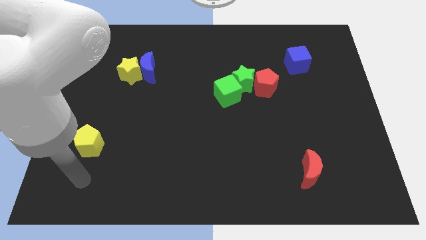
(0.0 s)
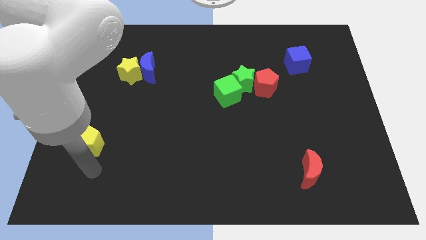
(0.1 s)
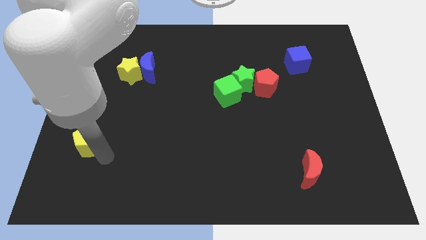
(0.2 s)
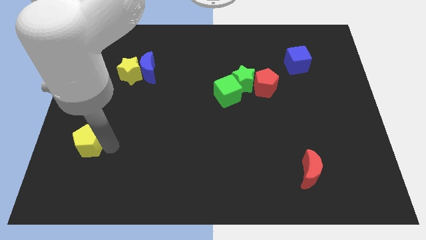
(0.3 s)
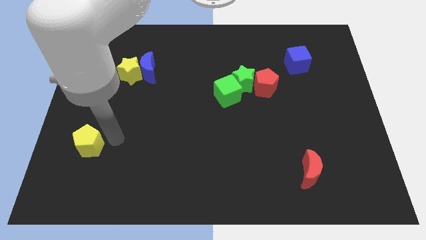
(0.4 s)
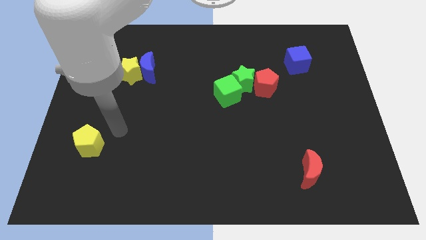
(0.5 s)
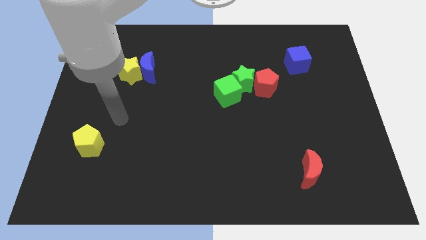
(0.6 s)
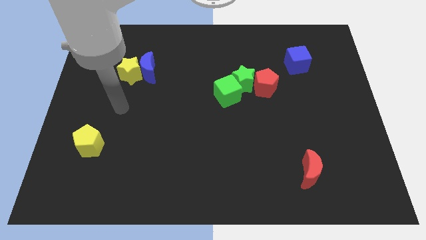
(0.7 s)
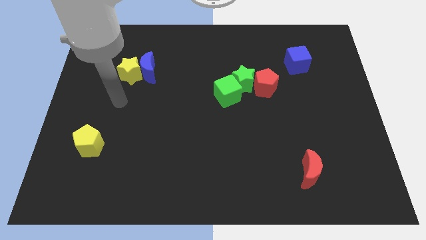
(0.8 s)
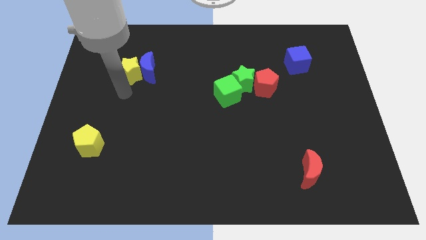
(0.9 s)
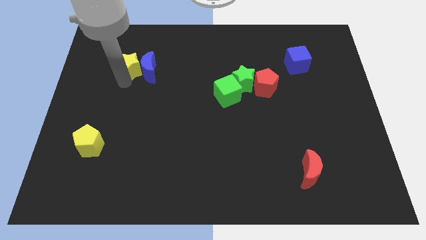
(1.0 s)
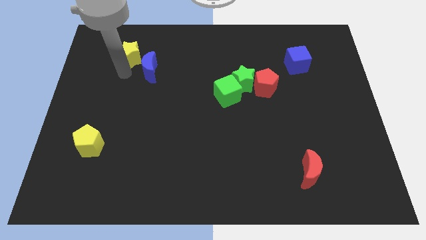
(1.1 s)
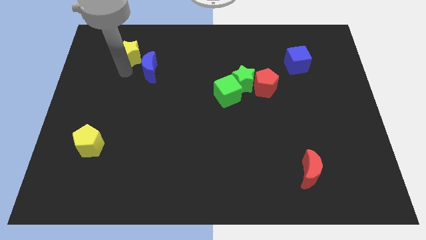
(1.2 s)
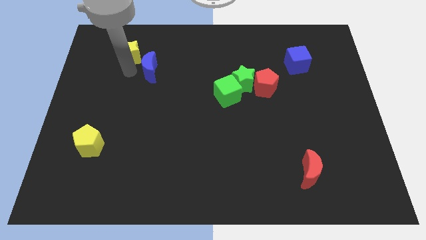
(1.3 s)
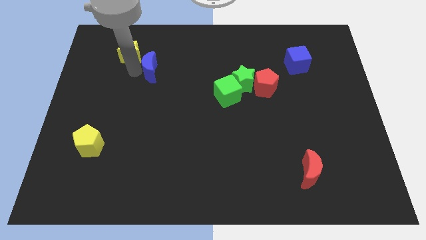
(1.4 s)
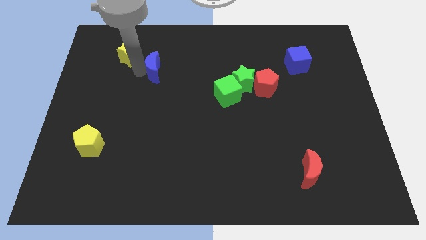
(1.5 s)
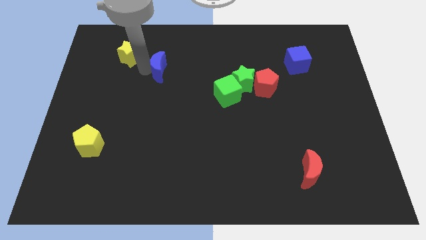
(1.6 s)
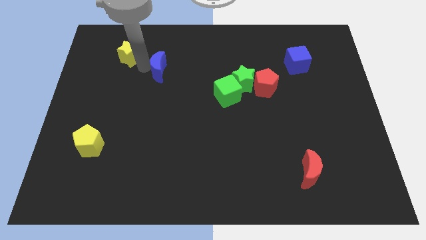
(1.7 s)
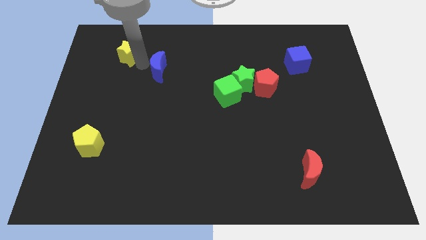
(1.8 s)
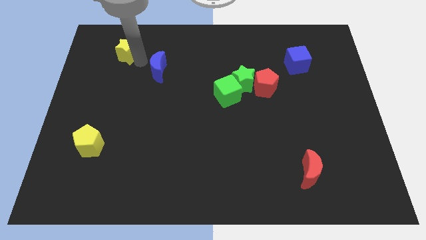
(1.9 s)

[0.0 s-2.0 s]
pull the blue moon apart from the yellow star

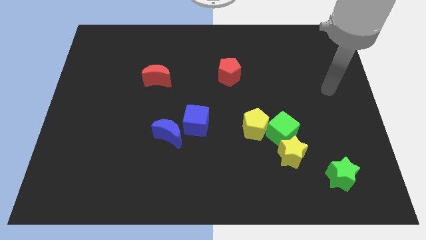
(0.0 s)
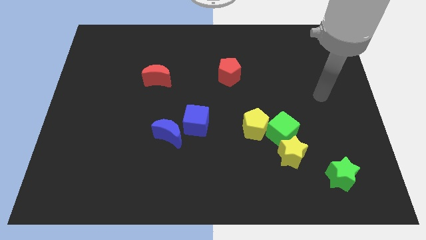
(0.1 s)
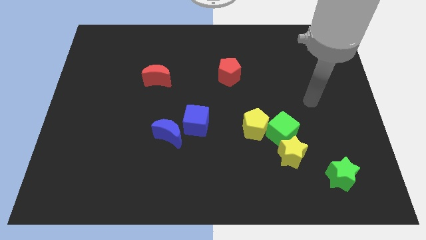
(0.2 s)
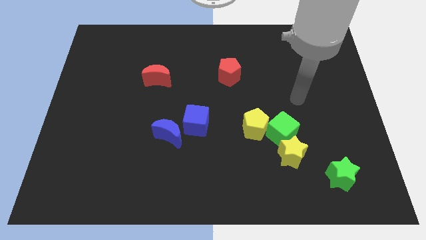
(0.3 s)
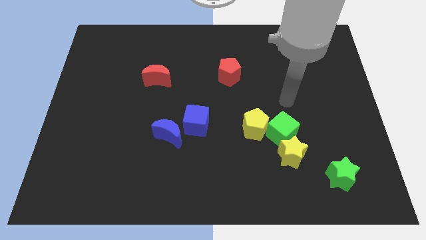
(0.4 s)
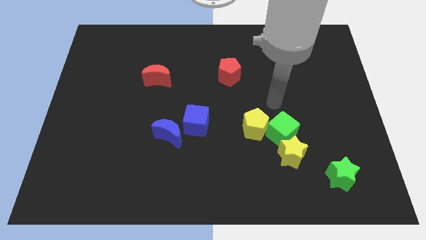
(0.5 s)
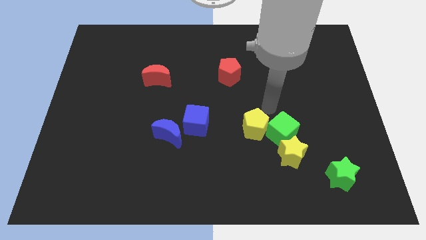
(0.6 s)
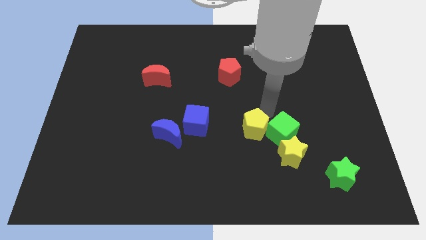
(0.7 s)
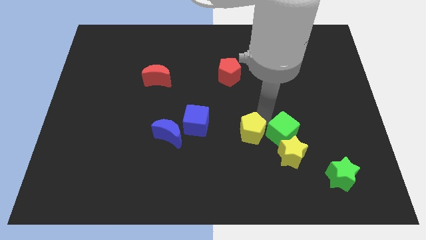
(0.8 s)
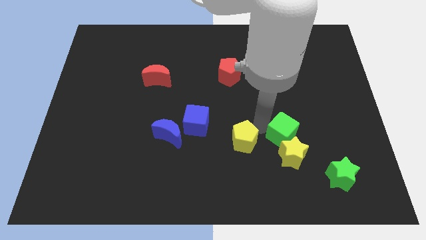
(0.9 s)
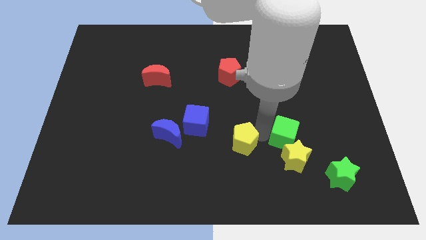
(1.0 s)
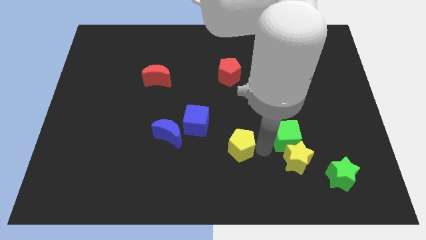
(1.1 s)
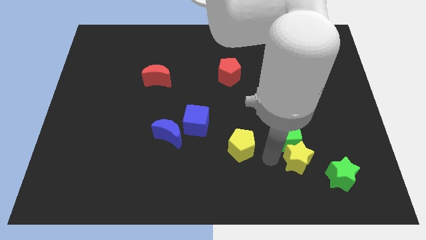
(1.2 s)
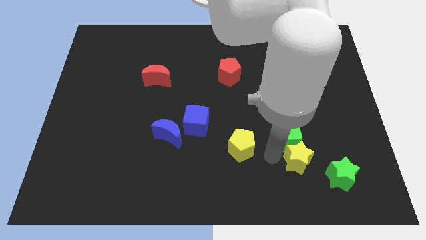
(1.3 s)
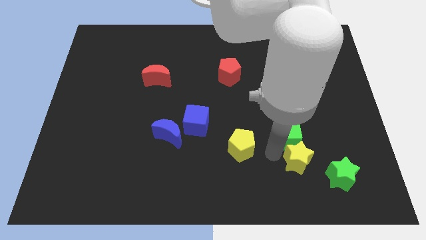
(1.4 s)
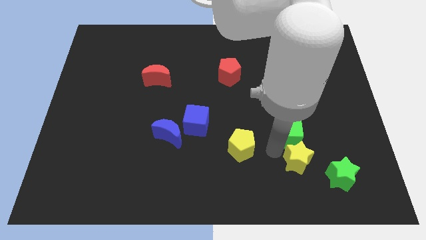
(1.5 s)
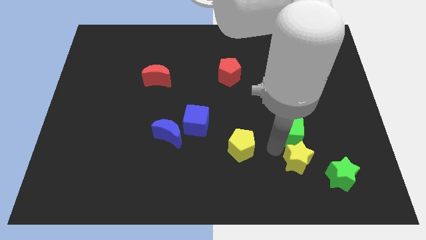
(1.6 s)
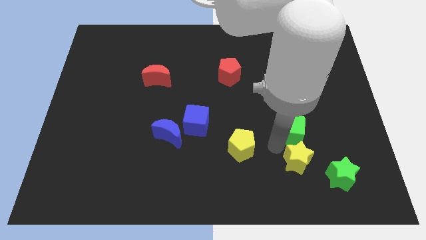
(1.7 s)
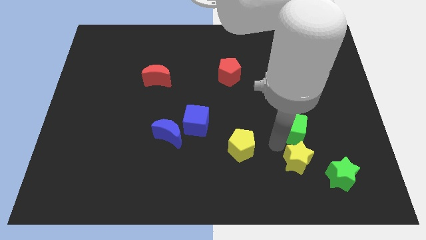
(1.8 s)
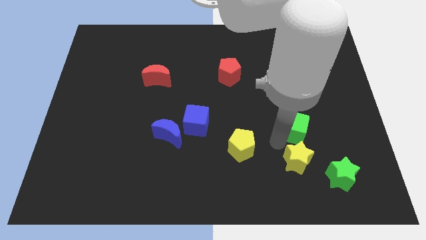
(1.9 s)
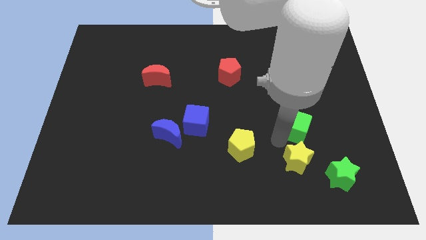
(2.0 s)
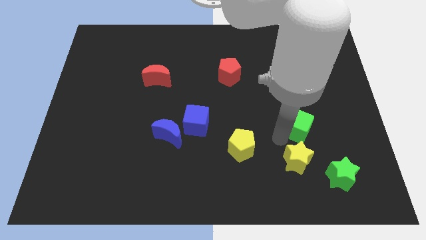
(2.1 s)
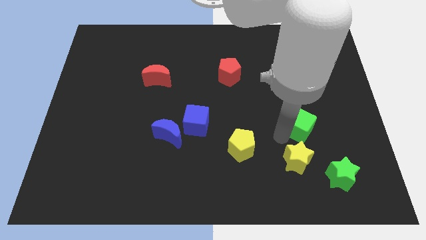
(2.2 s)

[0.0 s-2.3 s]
separate the green cube from the yellow star and yellow pentagon

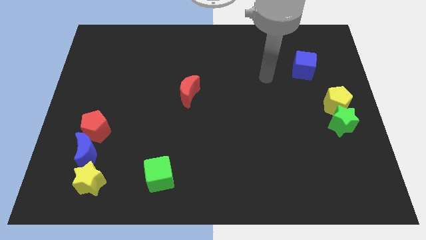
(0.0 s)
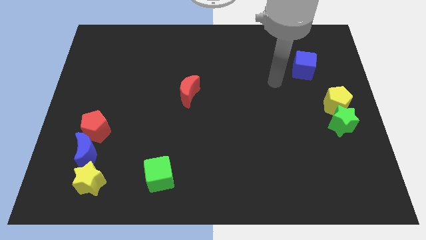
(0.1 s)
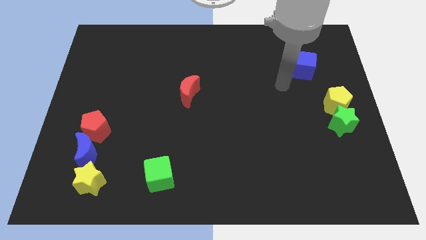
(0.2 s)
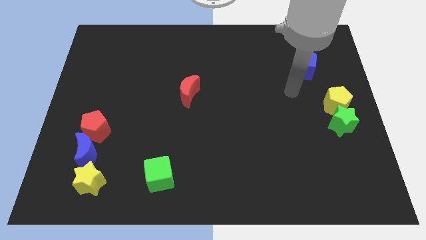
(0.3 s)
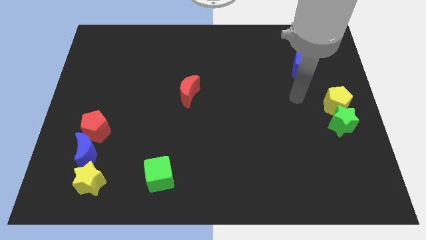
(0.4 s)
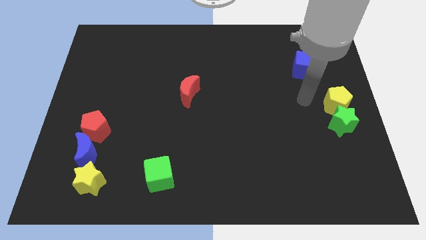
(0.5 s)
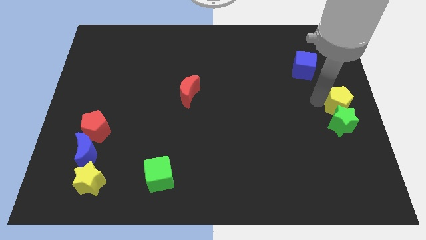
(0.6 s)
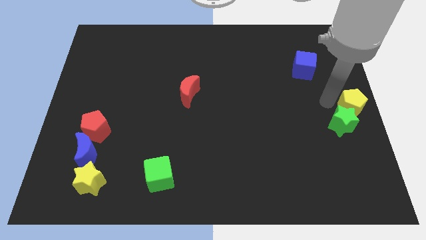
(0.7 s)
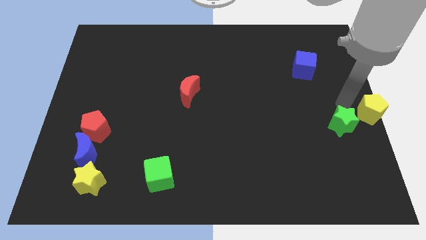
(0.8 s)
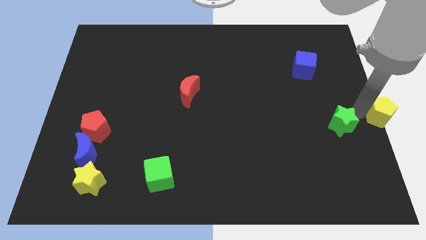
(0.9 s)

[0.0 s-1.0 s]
separate the green star from the yellow pentagon

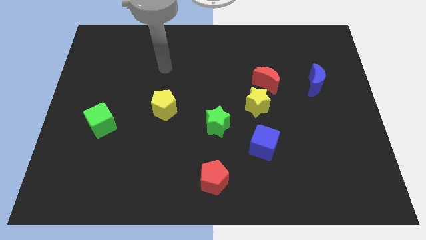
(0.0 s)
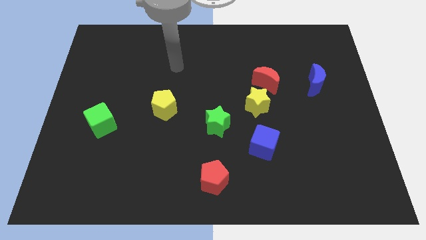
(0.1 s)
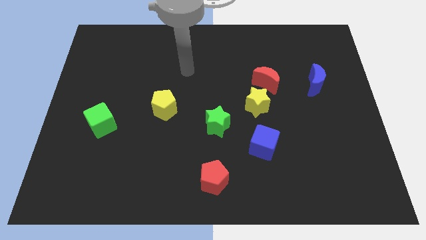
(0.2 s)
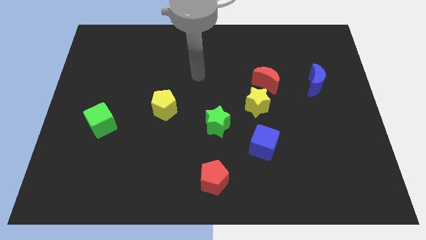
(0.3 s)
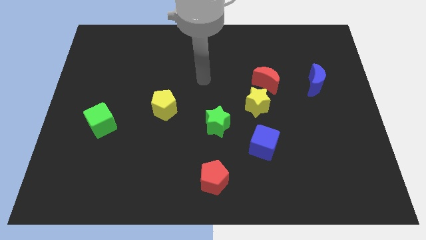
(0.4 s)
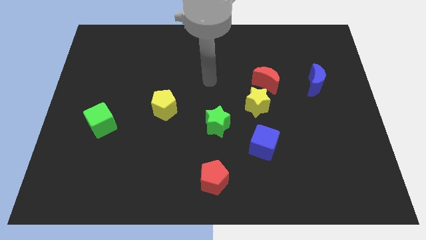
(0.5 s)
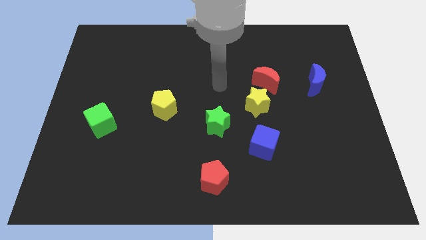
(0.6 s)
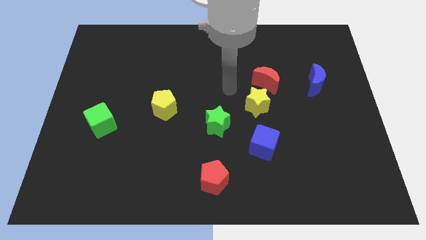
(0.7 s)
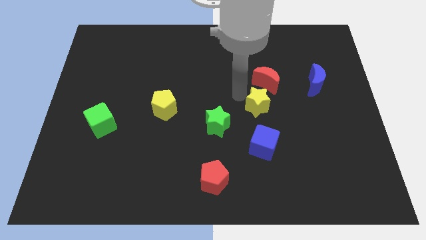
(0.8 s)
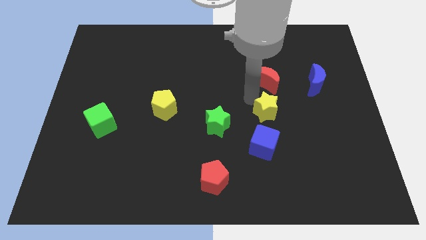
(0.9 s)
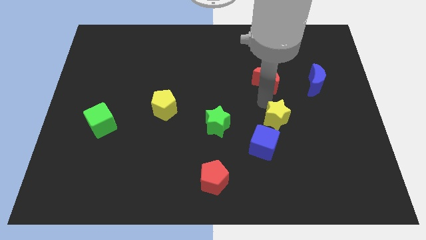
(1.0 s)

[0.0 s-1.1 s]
pull the red moon apart from the yellow star

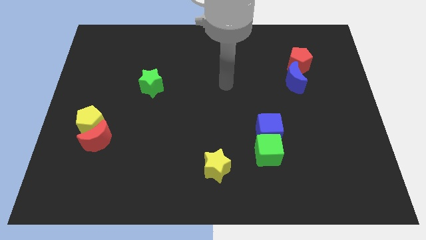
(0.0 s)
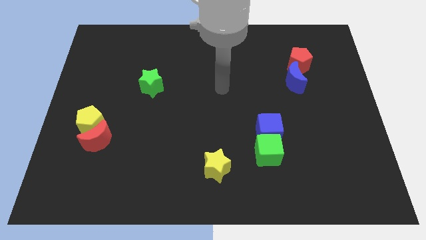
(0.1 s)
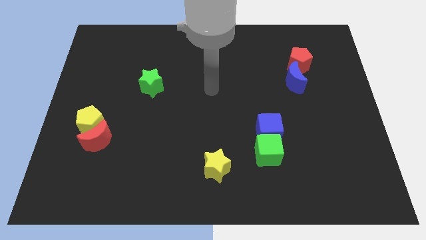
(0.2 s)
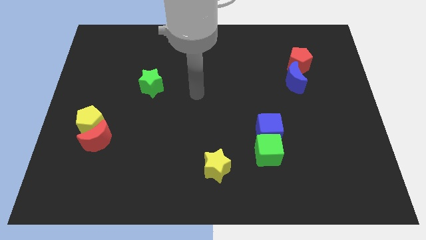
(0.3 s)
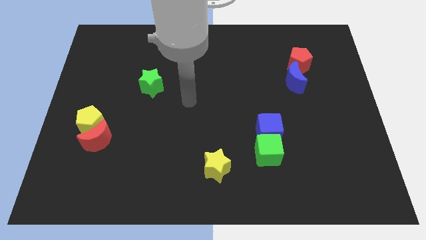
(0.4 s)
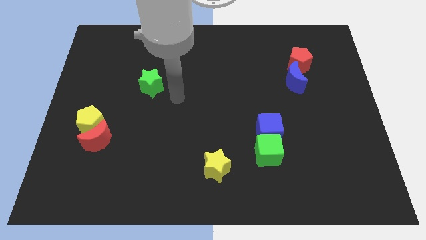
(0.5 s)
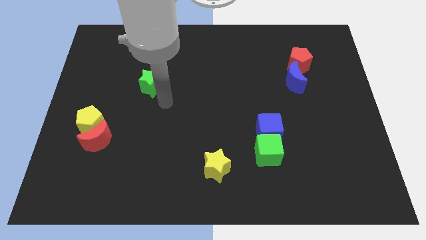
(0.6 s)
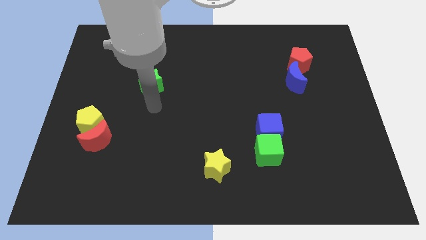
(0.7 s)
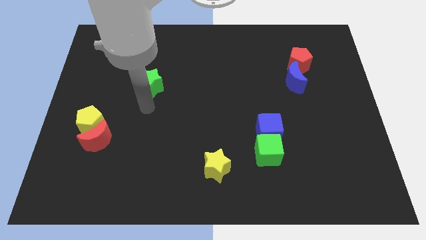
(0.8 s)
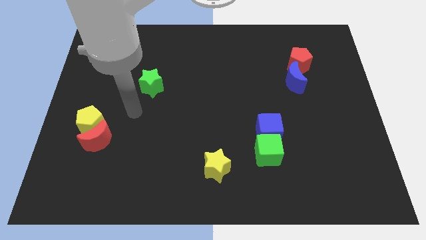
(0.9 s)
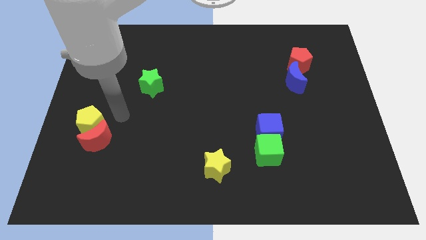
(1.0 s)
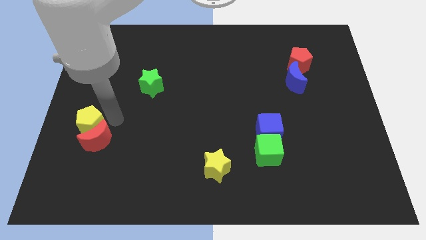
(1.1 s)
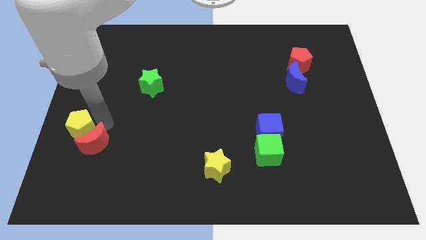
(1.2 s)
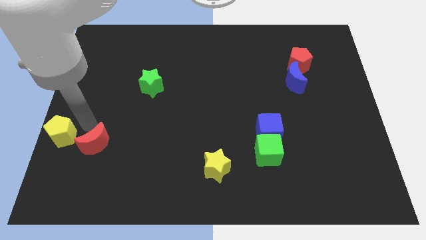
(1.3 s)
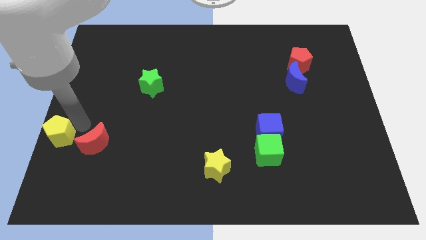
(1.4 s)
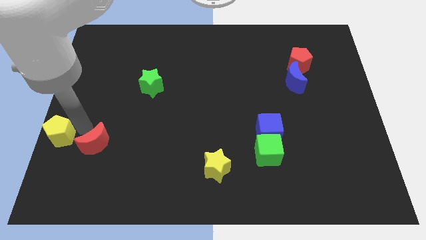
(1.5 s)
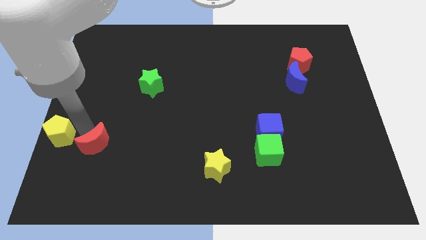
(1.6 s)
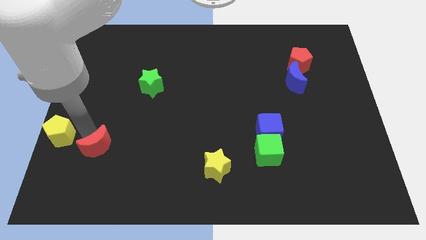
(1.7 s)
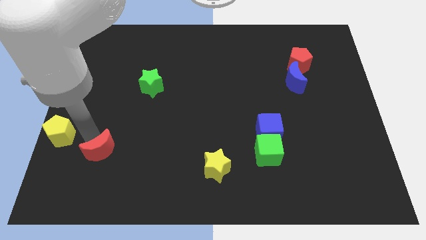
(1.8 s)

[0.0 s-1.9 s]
move the red moon away from the yellow pentagon

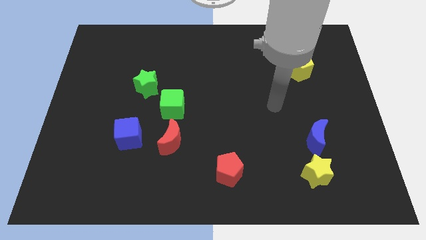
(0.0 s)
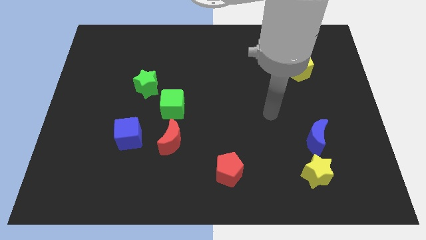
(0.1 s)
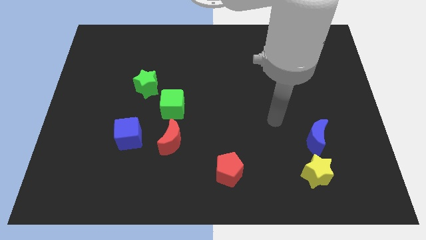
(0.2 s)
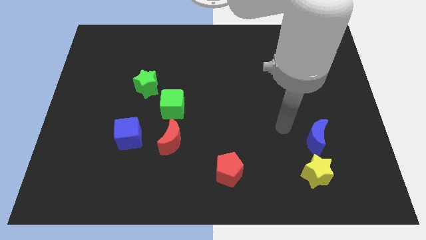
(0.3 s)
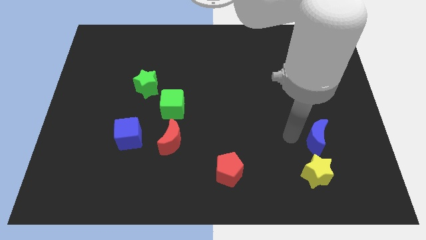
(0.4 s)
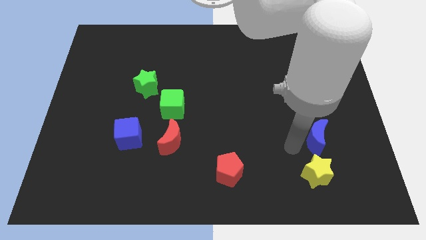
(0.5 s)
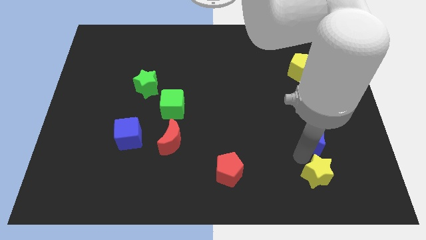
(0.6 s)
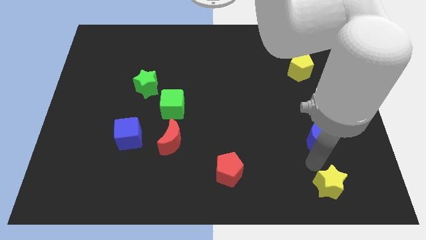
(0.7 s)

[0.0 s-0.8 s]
move the blue moon away from the yellow star

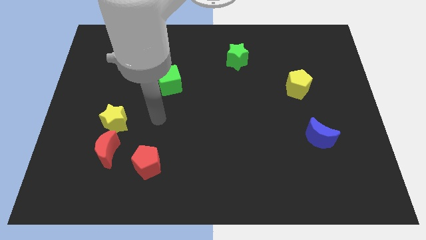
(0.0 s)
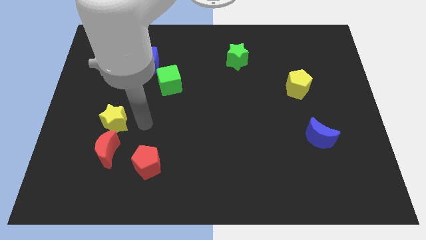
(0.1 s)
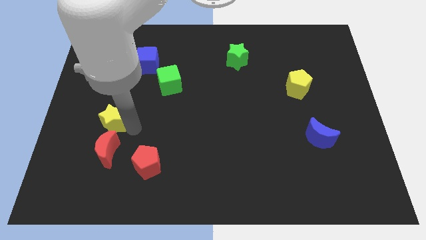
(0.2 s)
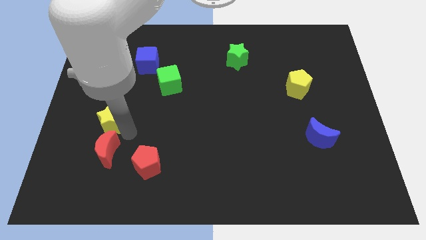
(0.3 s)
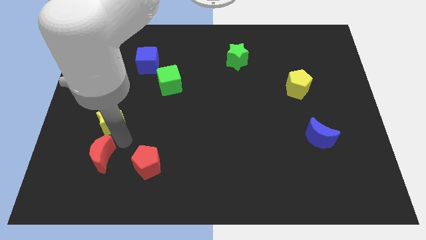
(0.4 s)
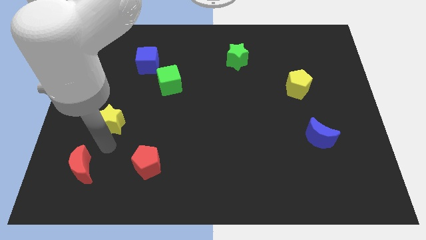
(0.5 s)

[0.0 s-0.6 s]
move the yellow star away from the red moon
